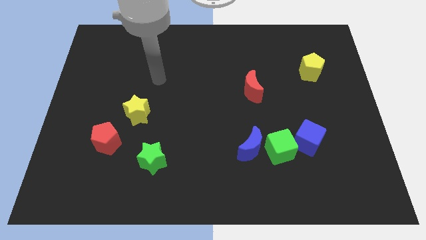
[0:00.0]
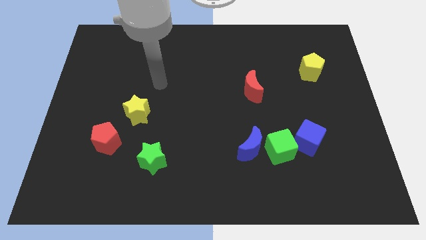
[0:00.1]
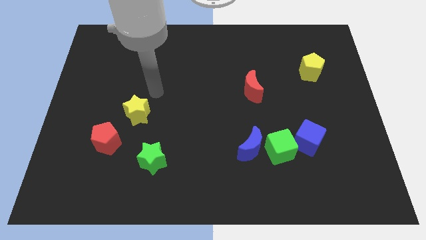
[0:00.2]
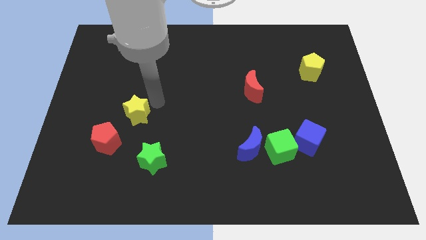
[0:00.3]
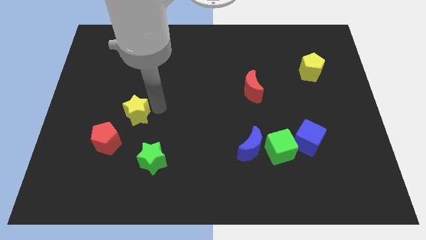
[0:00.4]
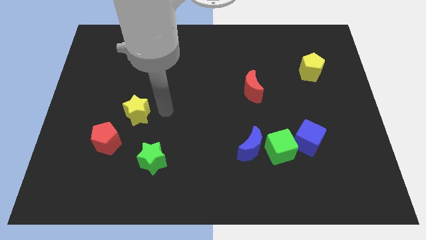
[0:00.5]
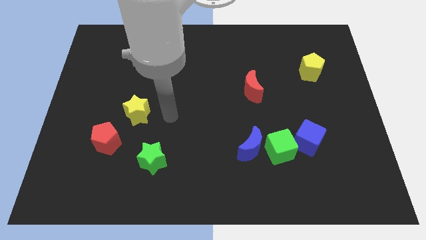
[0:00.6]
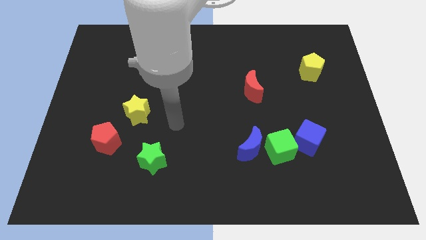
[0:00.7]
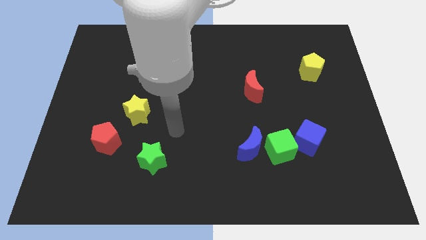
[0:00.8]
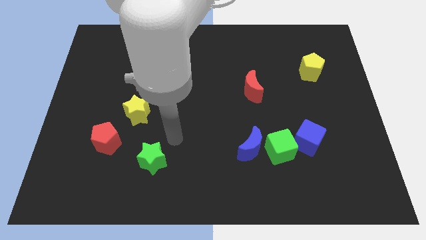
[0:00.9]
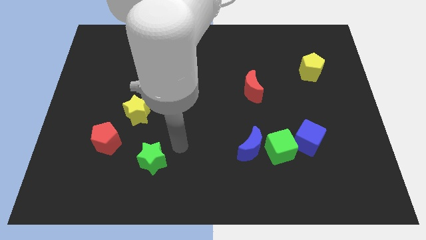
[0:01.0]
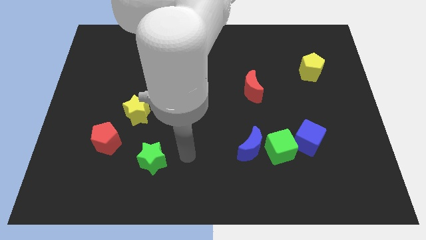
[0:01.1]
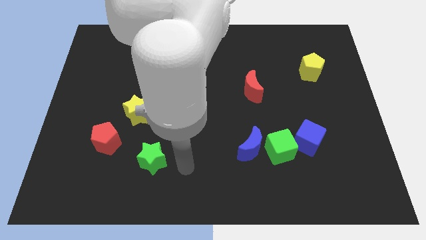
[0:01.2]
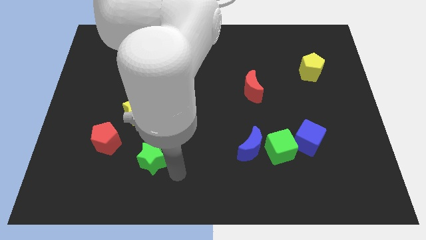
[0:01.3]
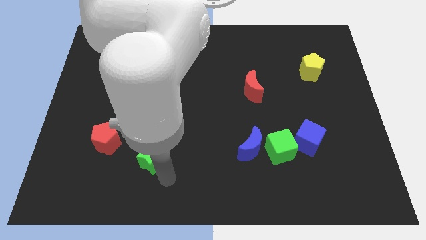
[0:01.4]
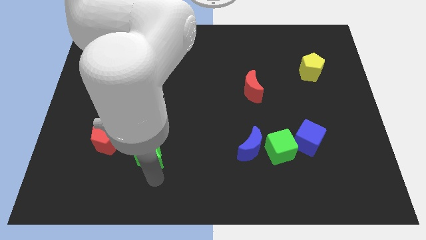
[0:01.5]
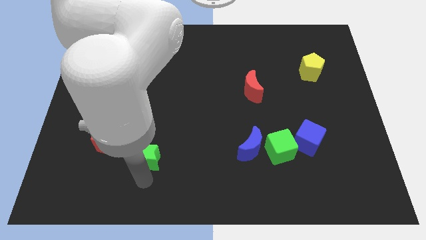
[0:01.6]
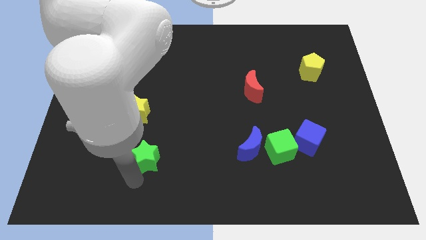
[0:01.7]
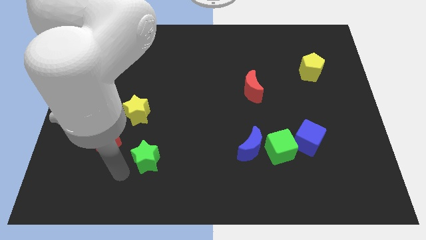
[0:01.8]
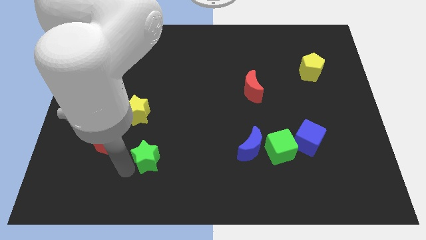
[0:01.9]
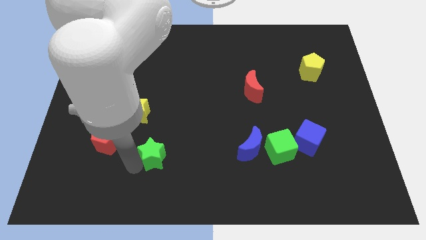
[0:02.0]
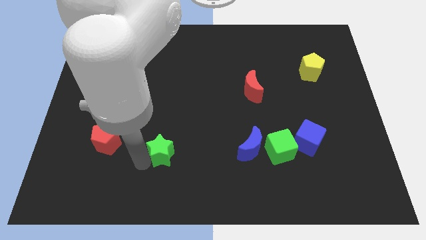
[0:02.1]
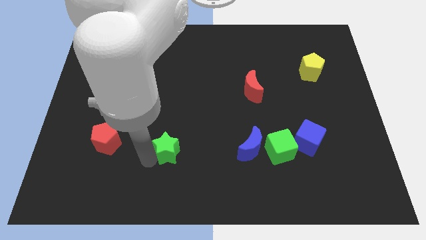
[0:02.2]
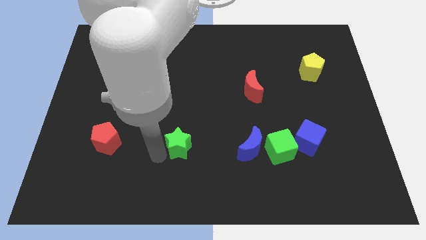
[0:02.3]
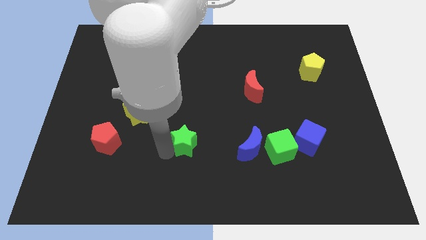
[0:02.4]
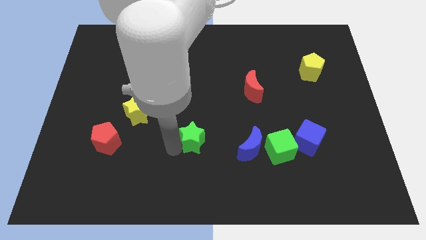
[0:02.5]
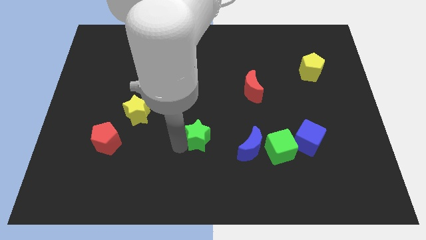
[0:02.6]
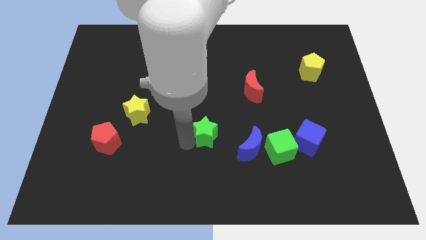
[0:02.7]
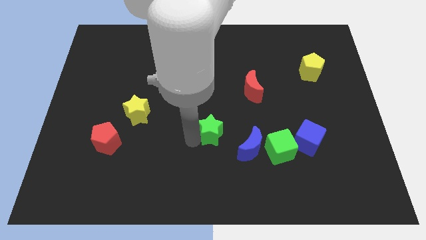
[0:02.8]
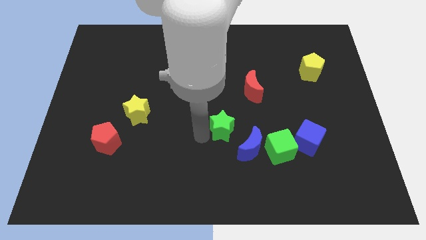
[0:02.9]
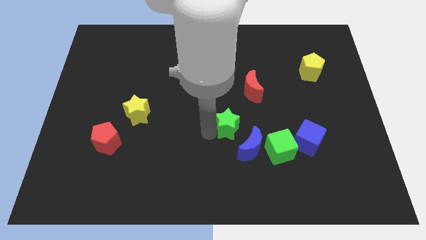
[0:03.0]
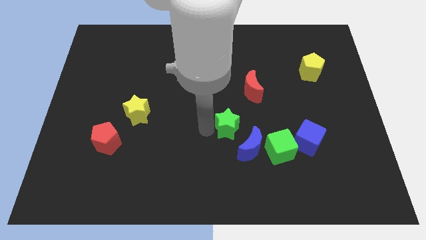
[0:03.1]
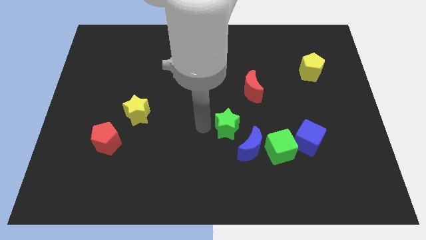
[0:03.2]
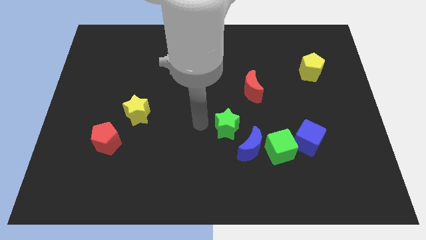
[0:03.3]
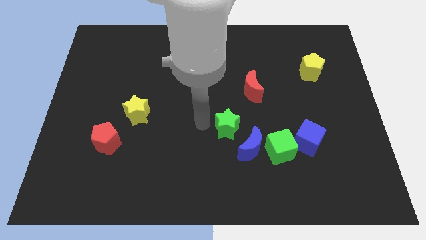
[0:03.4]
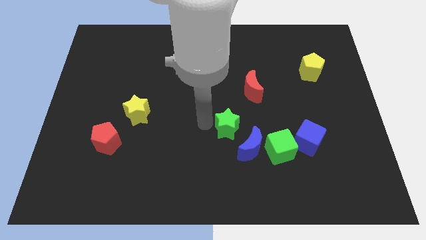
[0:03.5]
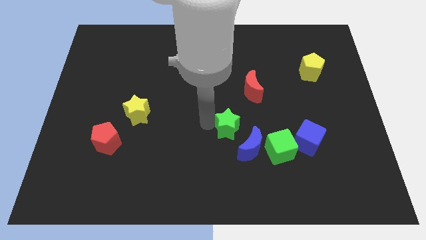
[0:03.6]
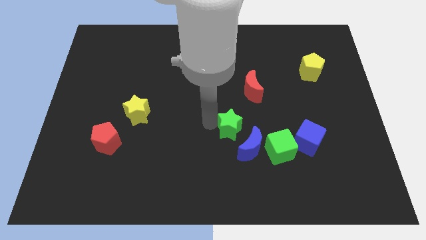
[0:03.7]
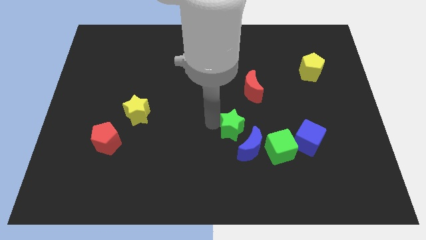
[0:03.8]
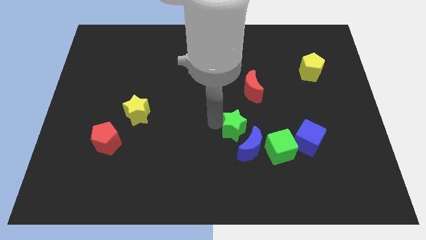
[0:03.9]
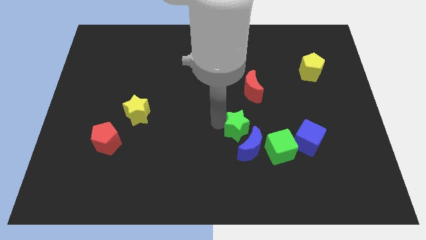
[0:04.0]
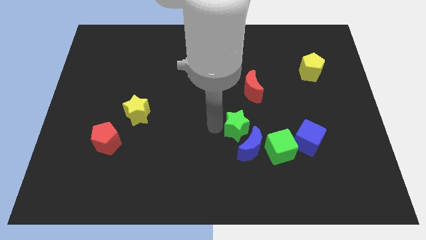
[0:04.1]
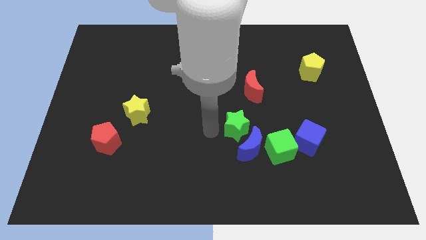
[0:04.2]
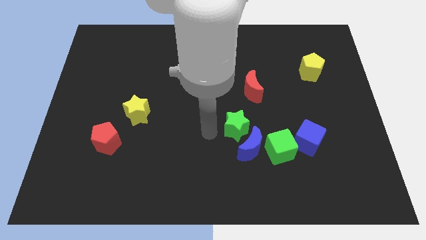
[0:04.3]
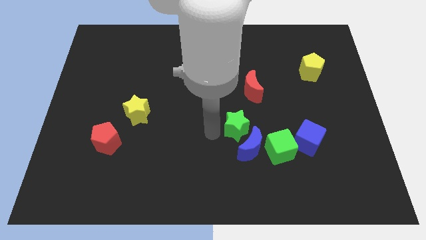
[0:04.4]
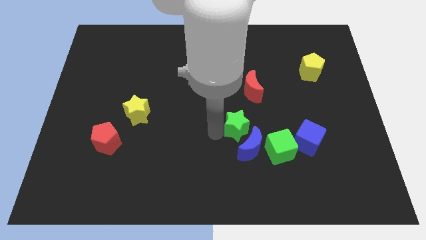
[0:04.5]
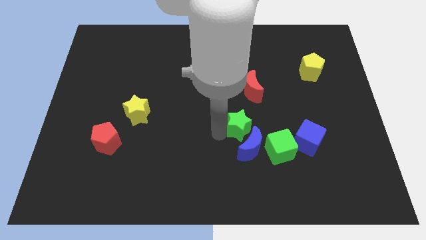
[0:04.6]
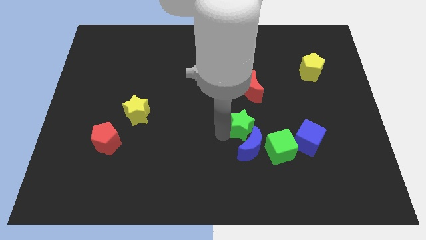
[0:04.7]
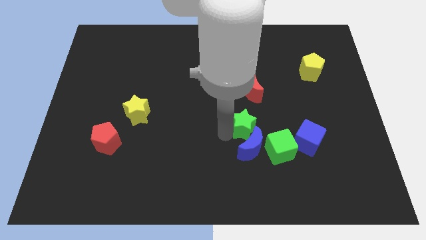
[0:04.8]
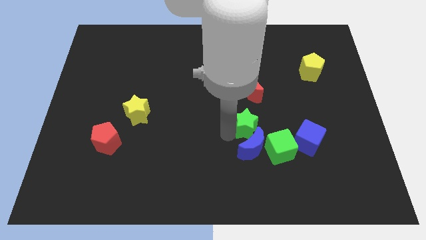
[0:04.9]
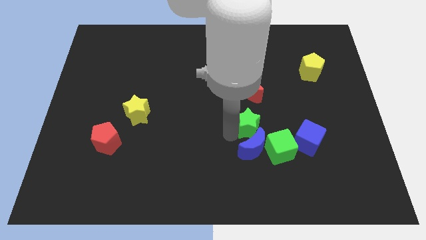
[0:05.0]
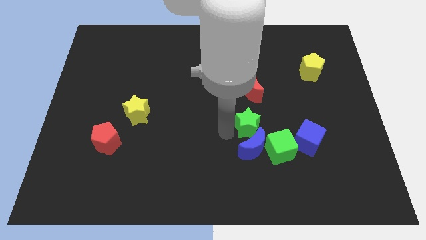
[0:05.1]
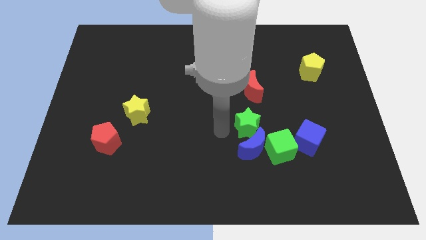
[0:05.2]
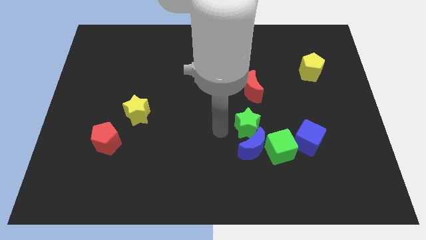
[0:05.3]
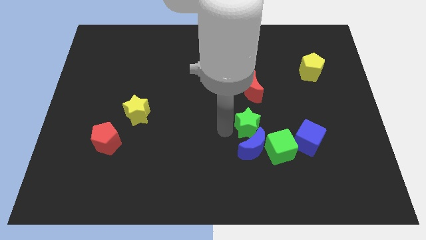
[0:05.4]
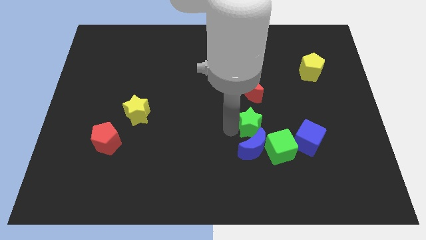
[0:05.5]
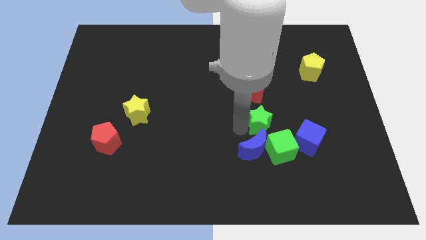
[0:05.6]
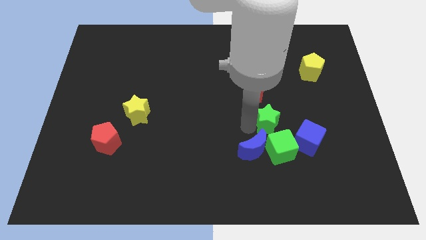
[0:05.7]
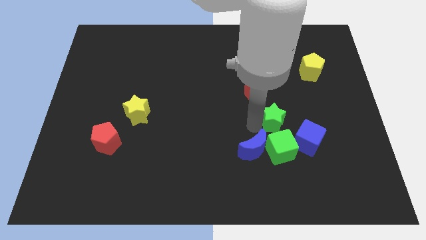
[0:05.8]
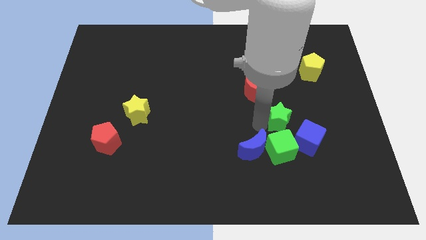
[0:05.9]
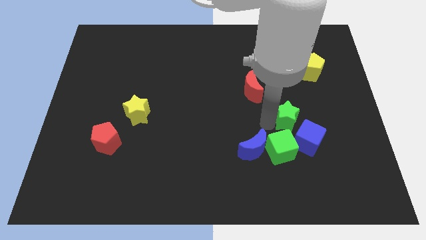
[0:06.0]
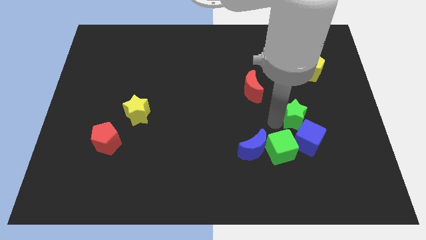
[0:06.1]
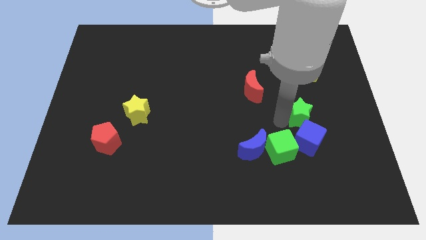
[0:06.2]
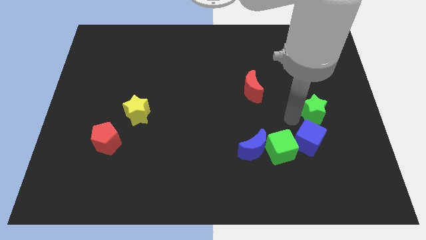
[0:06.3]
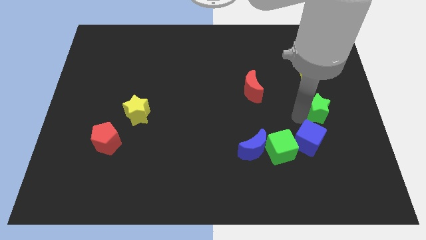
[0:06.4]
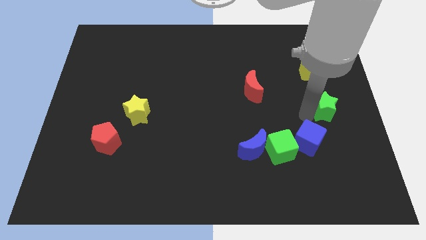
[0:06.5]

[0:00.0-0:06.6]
slide the green star to the right side
